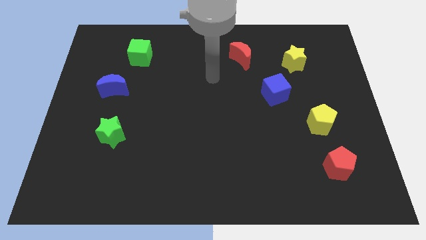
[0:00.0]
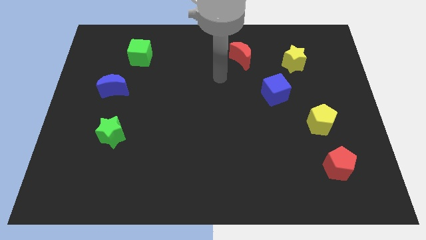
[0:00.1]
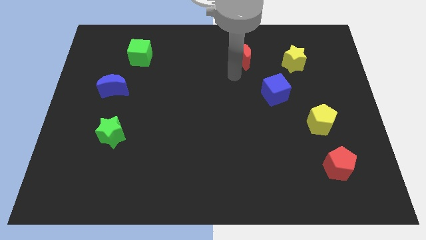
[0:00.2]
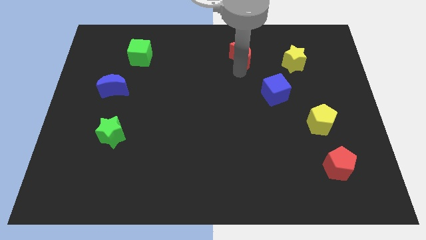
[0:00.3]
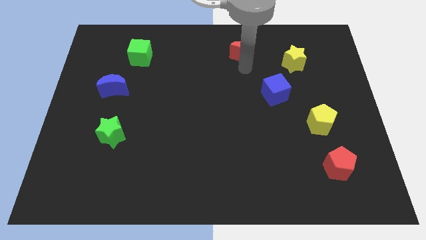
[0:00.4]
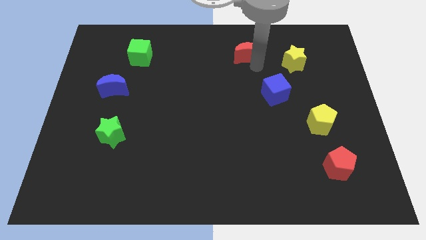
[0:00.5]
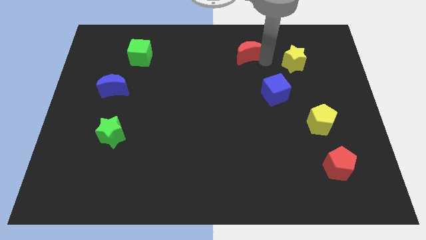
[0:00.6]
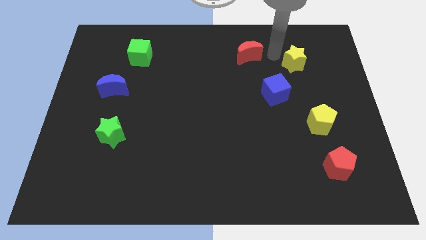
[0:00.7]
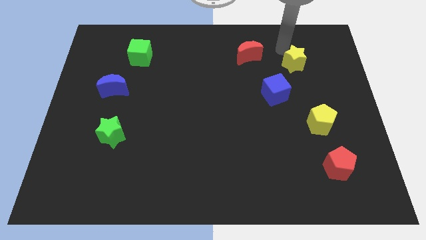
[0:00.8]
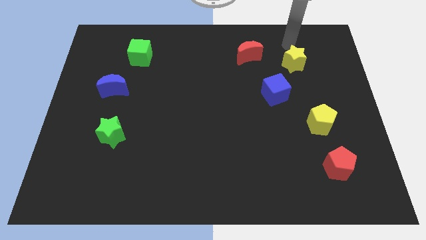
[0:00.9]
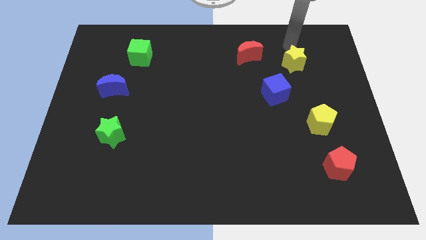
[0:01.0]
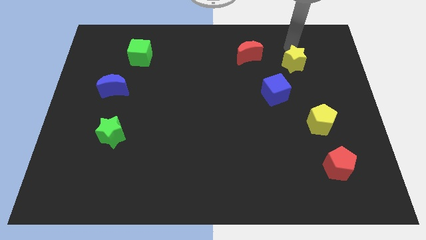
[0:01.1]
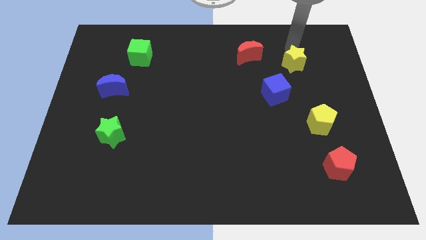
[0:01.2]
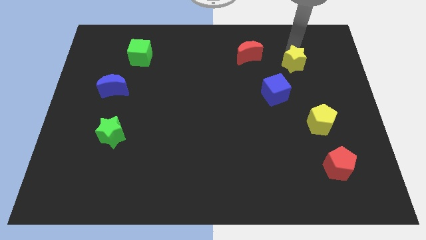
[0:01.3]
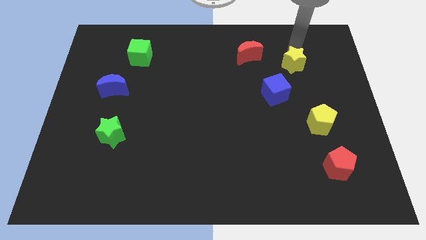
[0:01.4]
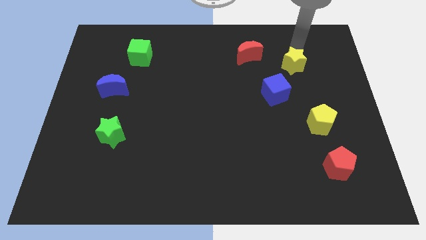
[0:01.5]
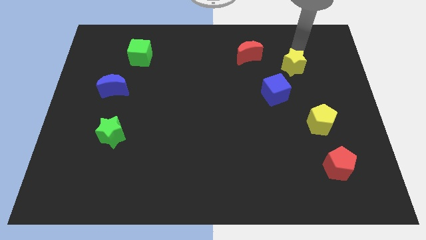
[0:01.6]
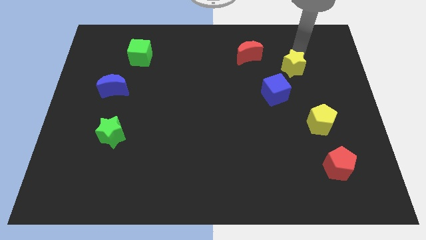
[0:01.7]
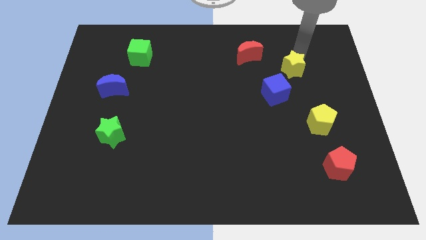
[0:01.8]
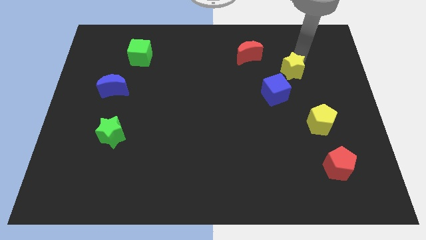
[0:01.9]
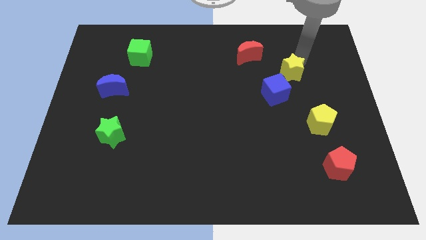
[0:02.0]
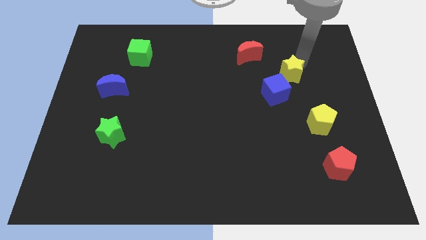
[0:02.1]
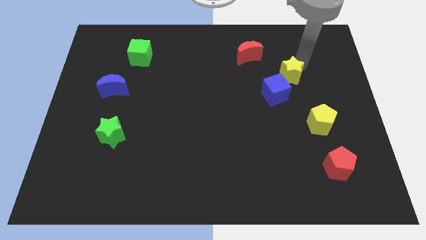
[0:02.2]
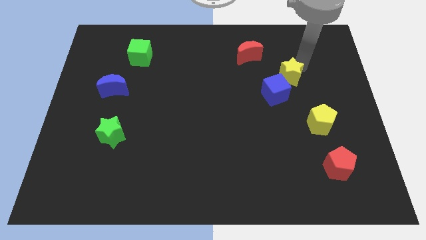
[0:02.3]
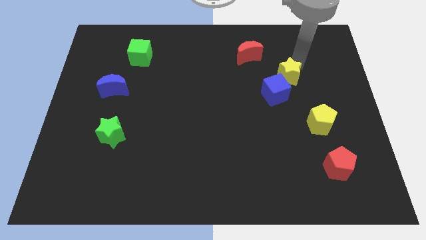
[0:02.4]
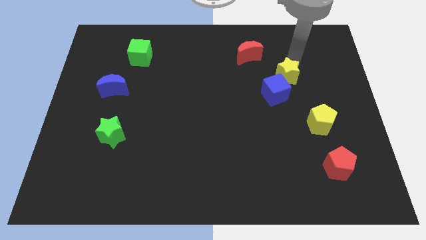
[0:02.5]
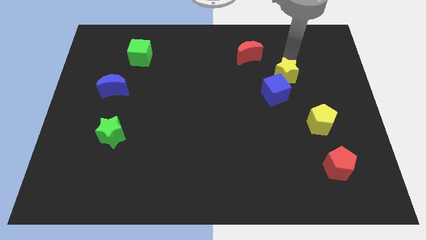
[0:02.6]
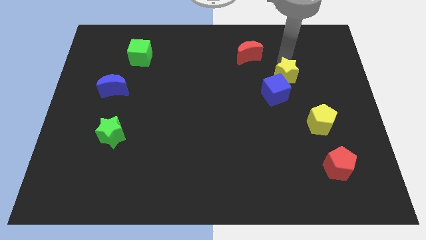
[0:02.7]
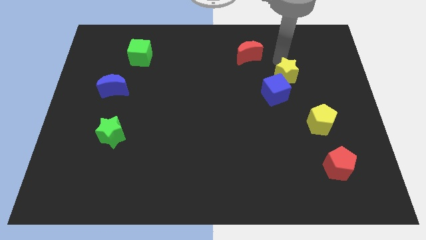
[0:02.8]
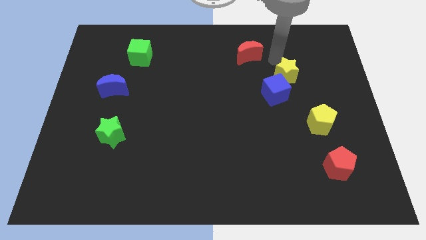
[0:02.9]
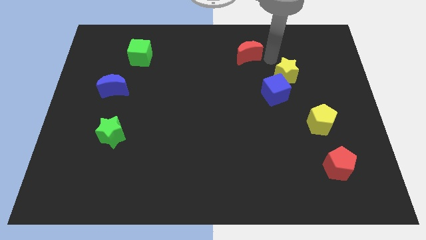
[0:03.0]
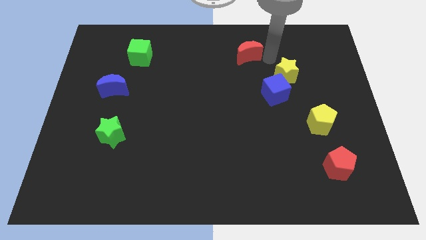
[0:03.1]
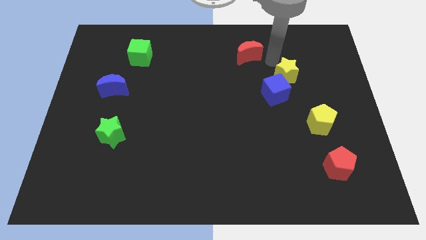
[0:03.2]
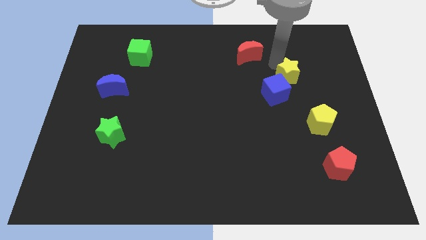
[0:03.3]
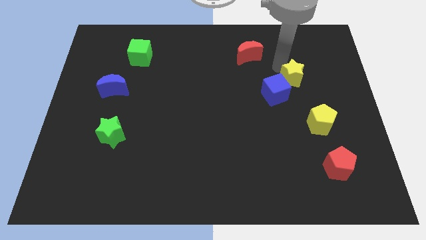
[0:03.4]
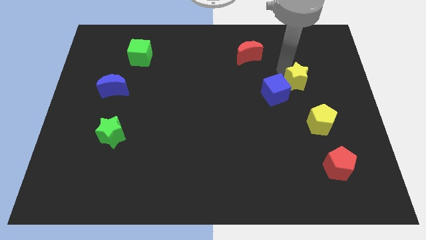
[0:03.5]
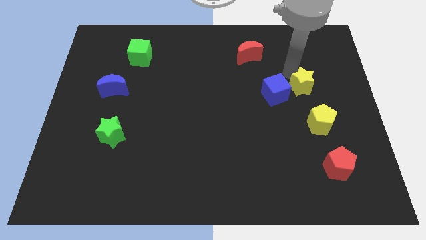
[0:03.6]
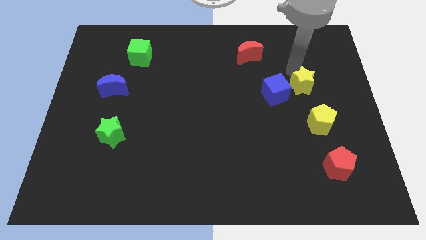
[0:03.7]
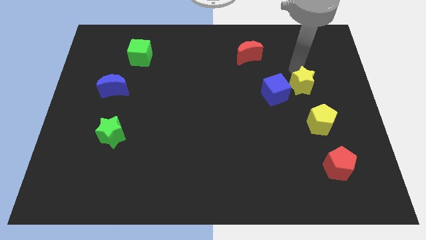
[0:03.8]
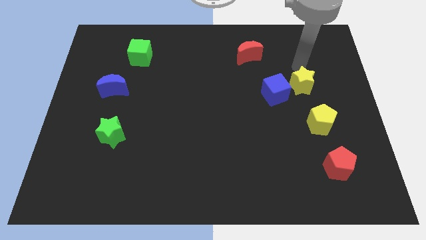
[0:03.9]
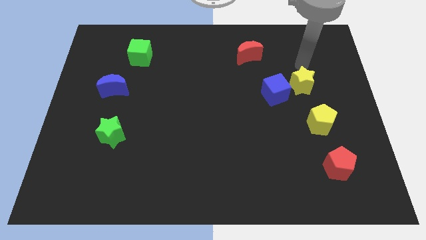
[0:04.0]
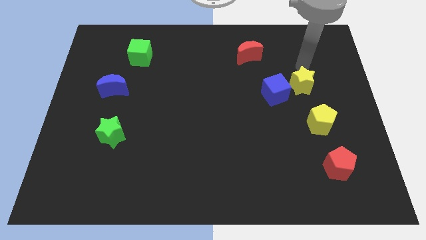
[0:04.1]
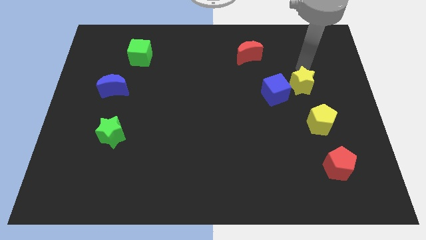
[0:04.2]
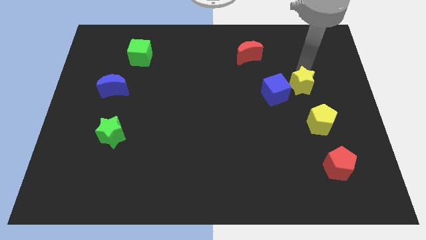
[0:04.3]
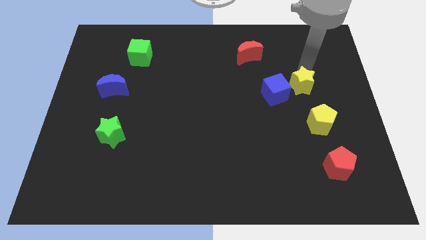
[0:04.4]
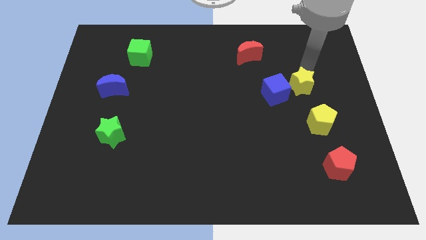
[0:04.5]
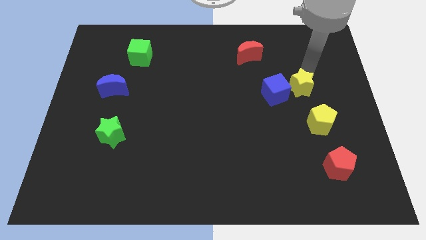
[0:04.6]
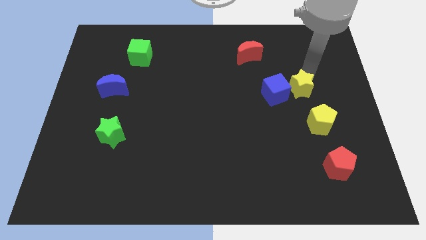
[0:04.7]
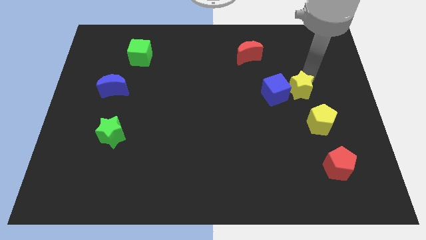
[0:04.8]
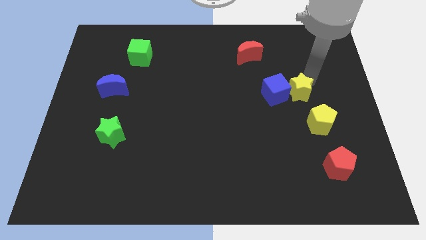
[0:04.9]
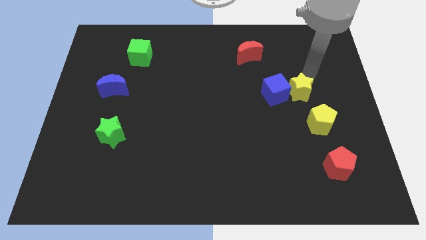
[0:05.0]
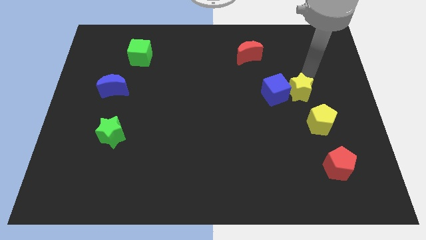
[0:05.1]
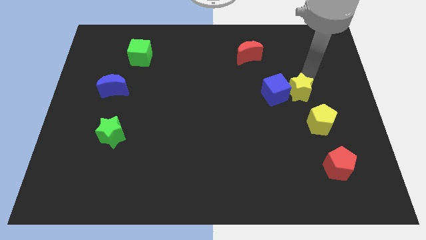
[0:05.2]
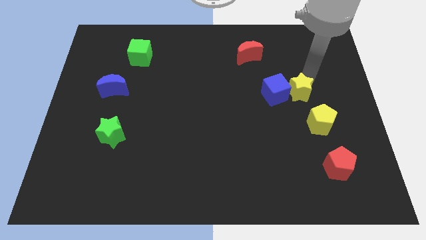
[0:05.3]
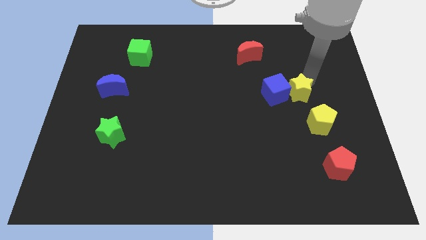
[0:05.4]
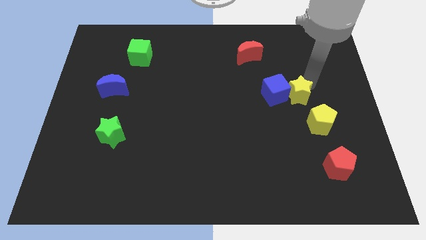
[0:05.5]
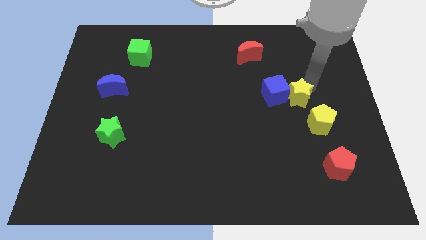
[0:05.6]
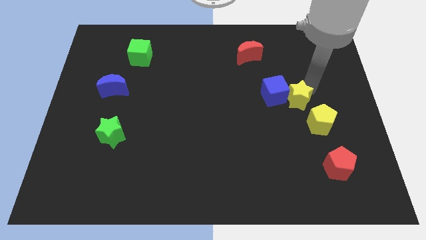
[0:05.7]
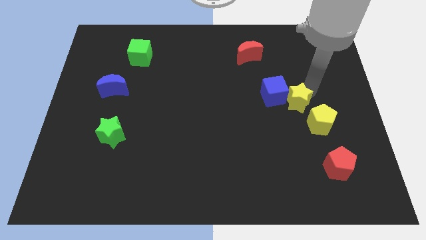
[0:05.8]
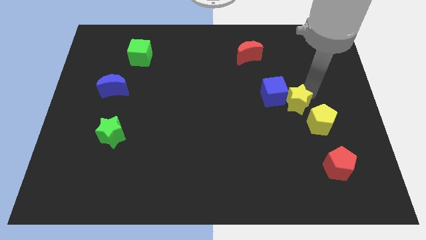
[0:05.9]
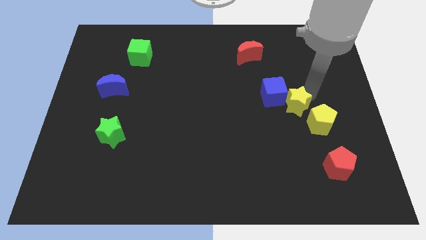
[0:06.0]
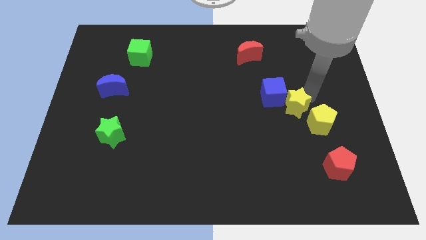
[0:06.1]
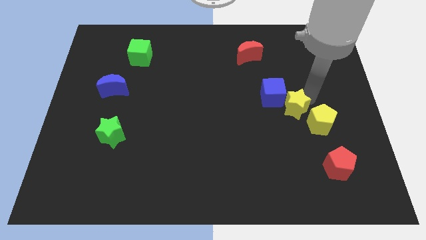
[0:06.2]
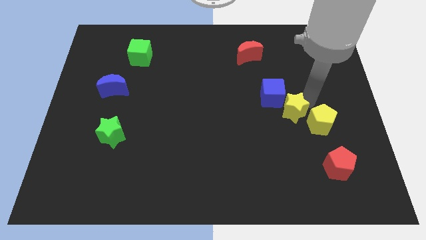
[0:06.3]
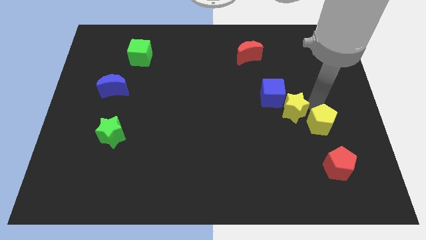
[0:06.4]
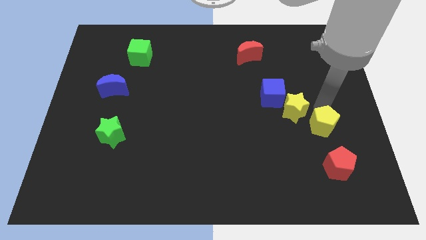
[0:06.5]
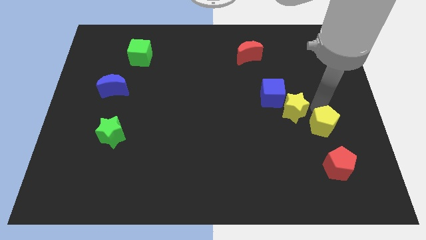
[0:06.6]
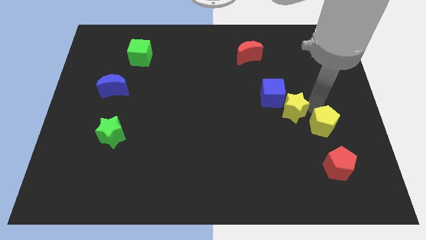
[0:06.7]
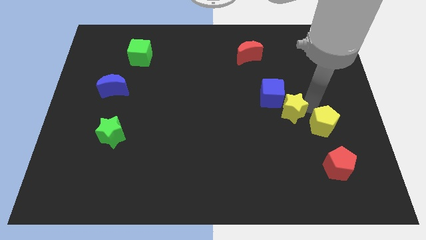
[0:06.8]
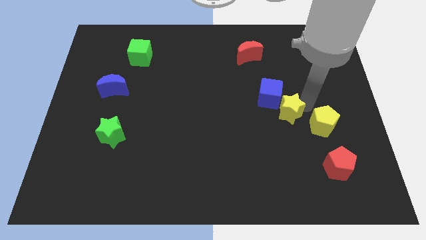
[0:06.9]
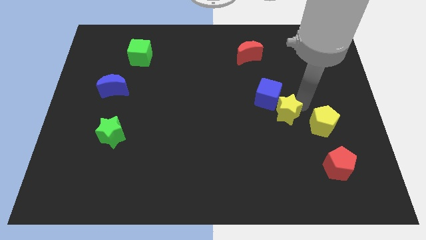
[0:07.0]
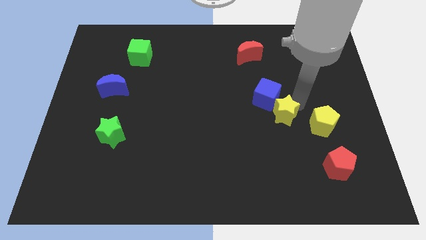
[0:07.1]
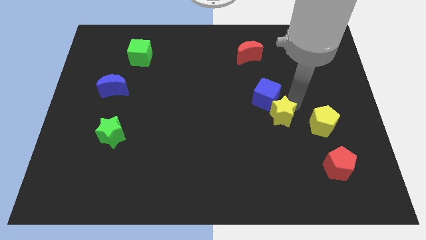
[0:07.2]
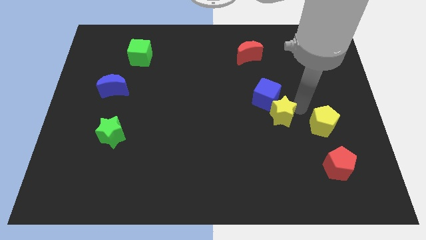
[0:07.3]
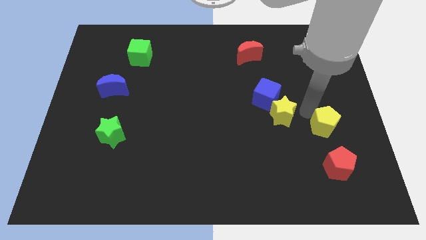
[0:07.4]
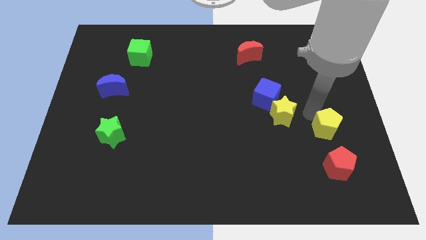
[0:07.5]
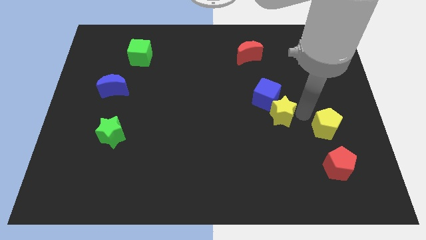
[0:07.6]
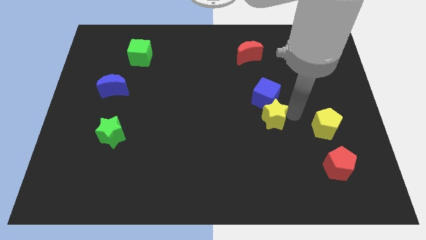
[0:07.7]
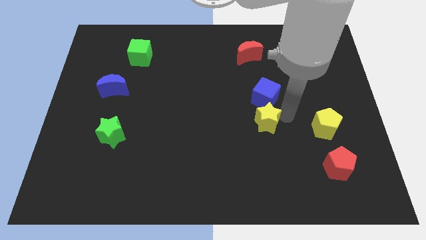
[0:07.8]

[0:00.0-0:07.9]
put the yellow star diagonally down and to the left of the blue cube
